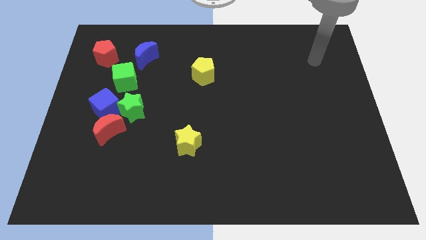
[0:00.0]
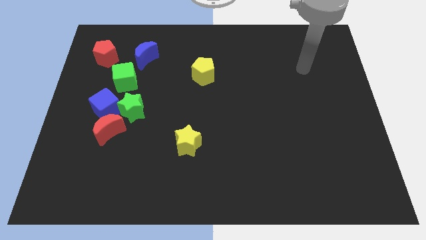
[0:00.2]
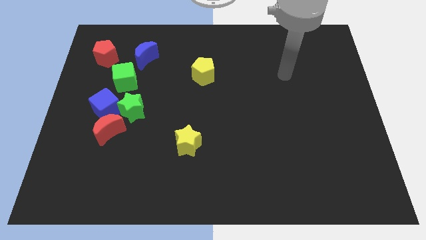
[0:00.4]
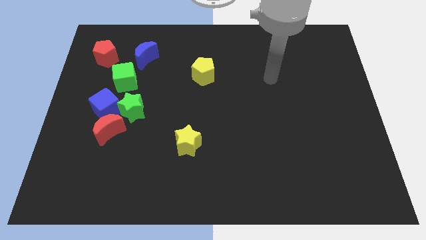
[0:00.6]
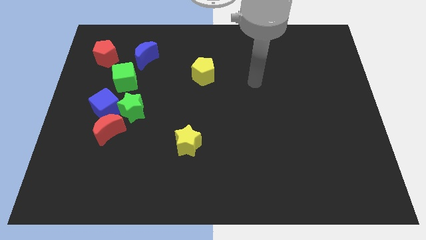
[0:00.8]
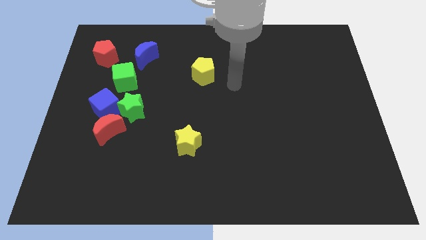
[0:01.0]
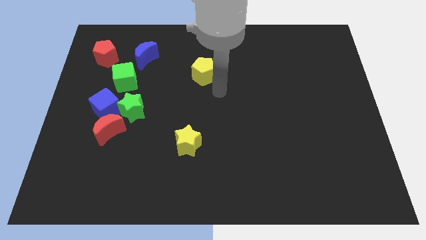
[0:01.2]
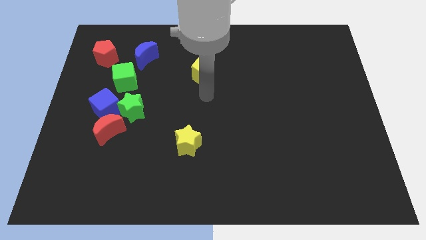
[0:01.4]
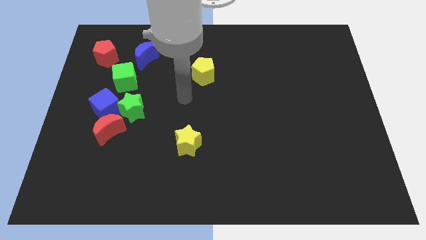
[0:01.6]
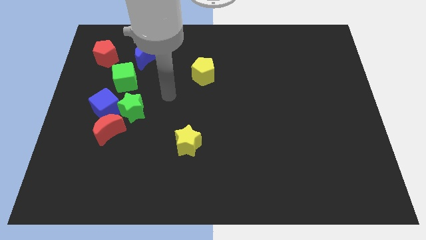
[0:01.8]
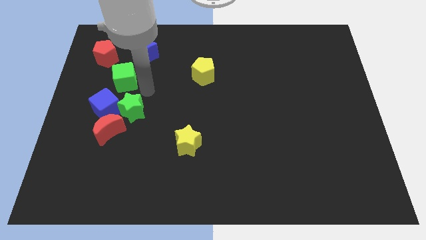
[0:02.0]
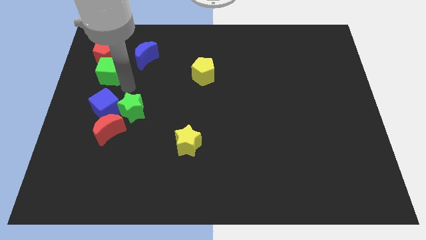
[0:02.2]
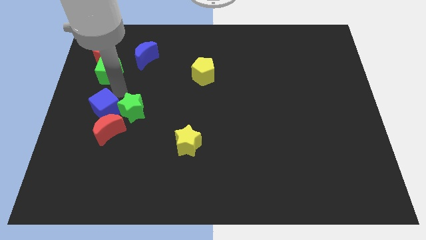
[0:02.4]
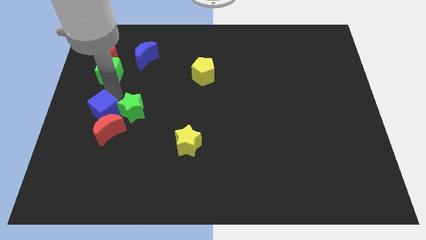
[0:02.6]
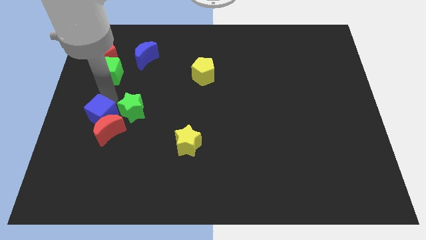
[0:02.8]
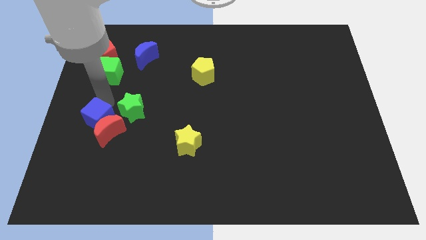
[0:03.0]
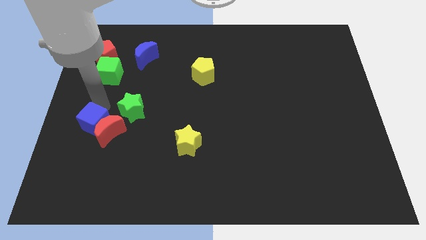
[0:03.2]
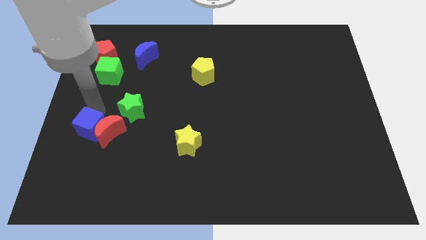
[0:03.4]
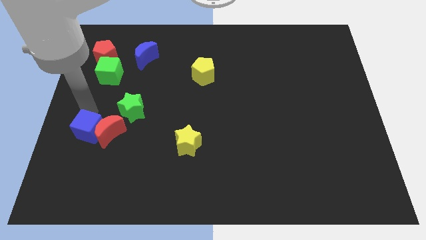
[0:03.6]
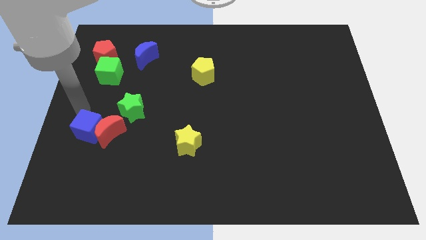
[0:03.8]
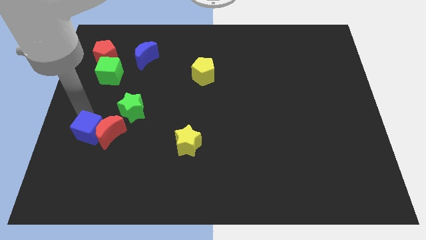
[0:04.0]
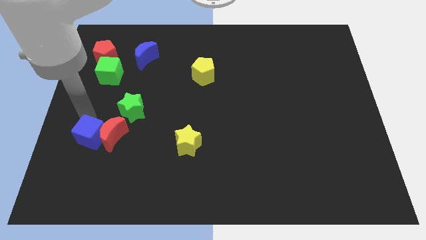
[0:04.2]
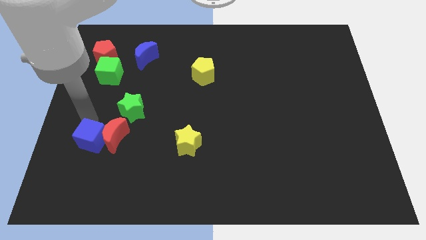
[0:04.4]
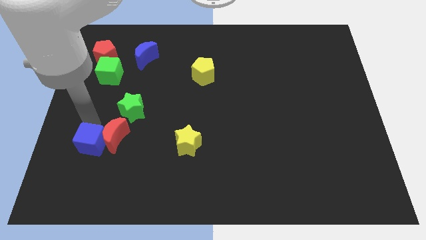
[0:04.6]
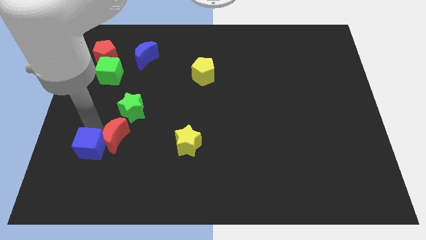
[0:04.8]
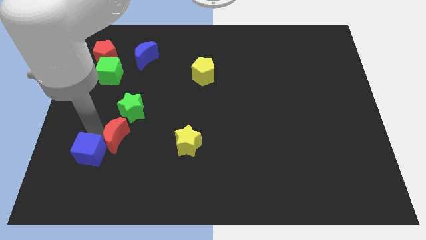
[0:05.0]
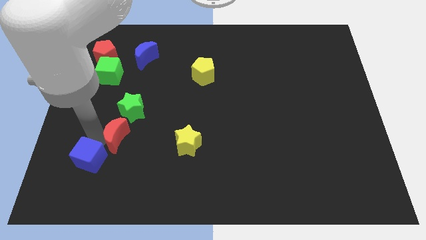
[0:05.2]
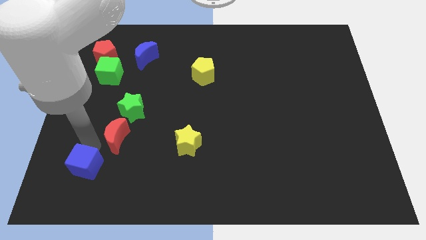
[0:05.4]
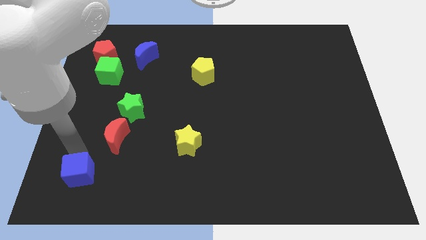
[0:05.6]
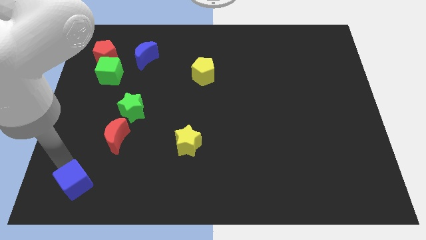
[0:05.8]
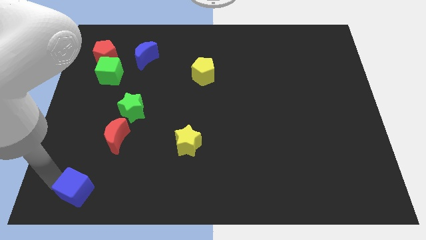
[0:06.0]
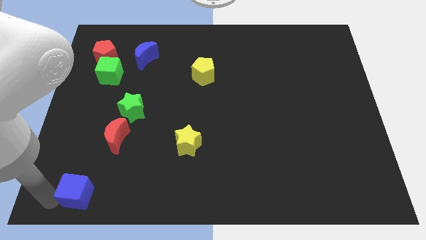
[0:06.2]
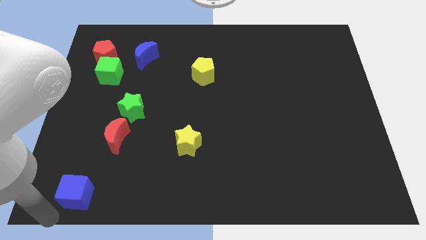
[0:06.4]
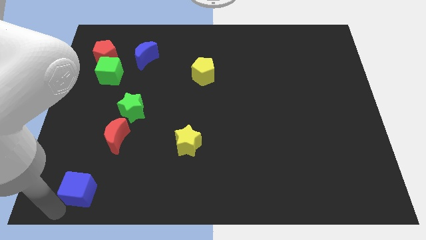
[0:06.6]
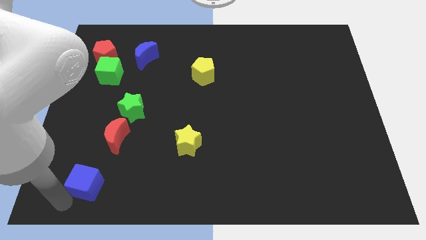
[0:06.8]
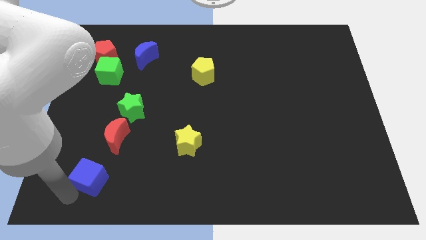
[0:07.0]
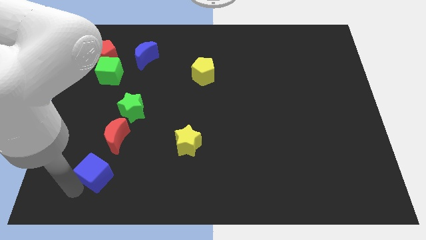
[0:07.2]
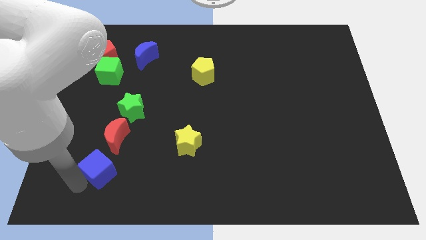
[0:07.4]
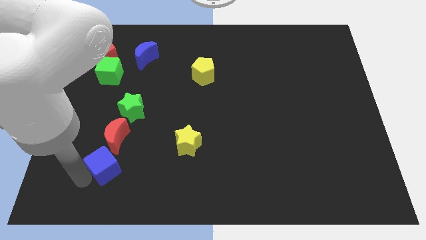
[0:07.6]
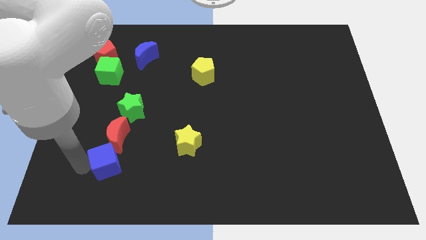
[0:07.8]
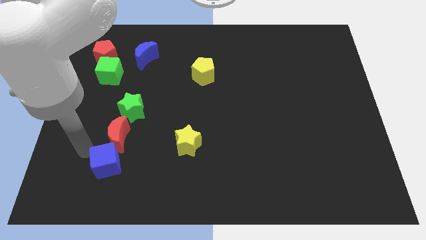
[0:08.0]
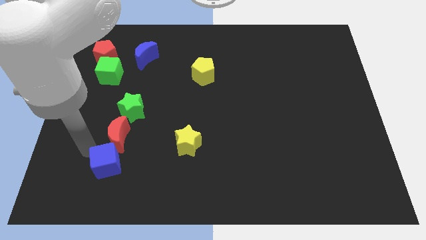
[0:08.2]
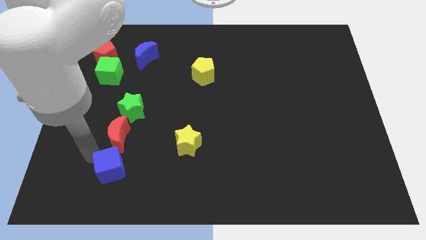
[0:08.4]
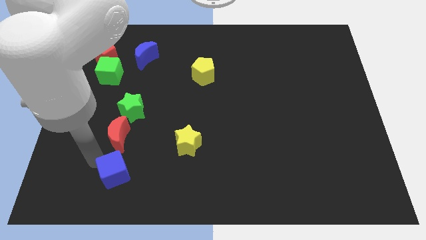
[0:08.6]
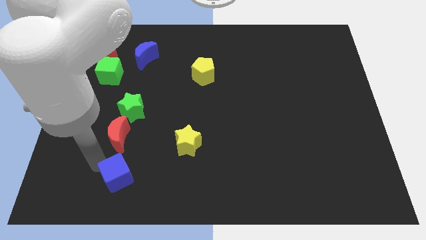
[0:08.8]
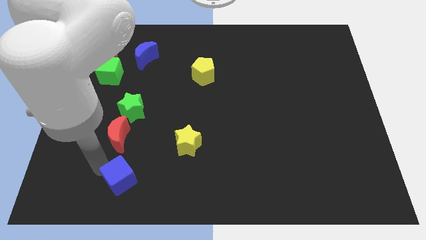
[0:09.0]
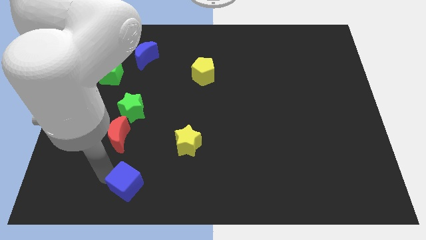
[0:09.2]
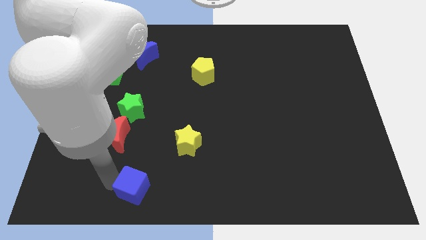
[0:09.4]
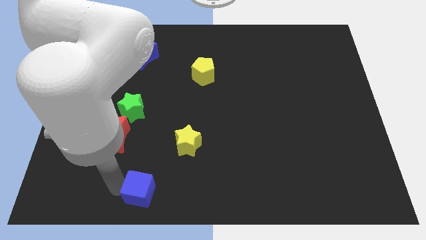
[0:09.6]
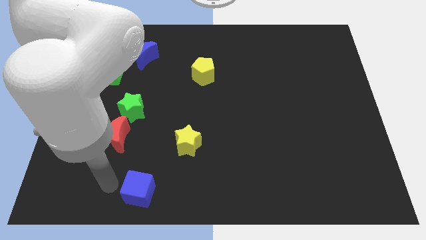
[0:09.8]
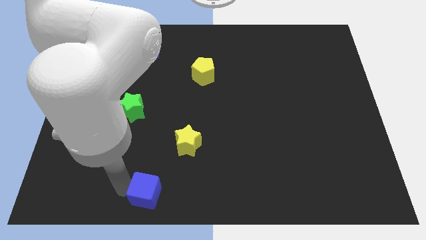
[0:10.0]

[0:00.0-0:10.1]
move the blue cube to the bottom

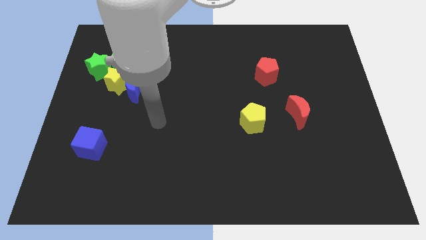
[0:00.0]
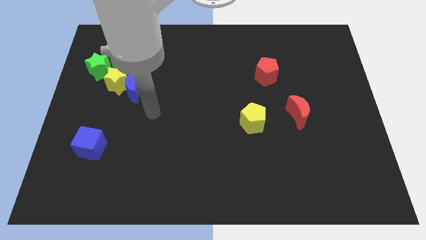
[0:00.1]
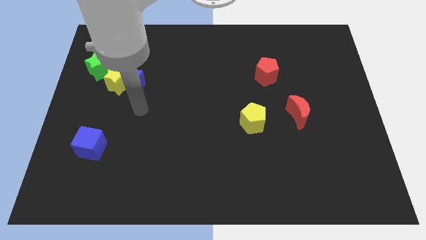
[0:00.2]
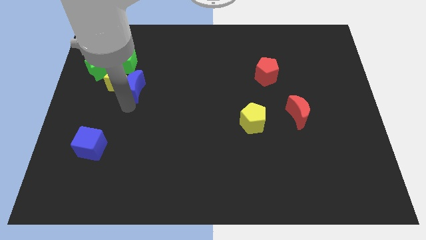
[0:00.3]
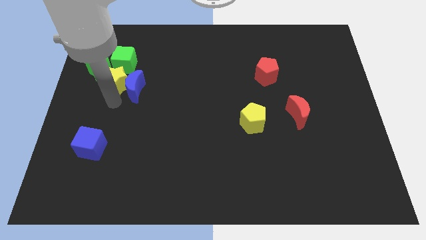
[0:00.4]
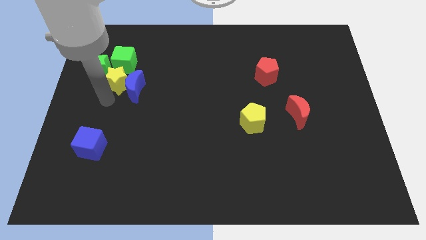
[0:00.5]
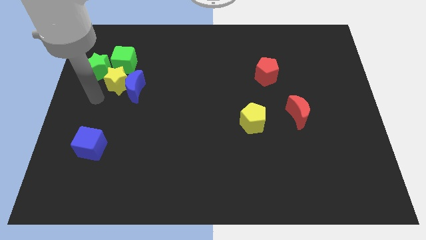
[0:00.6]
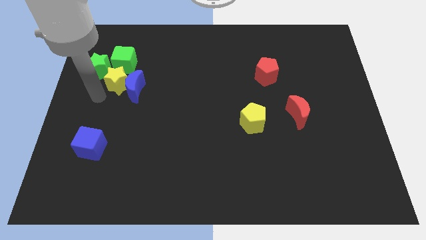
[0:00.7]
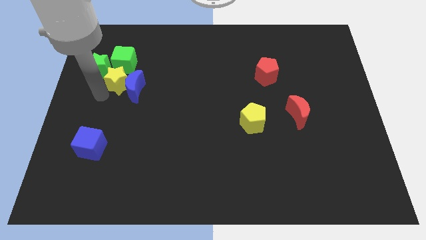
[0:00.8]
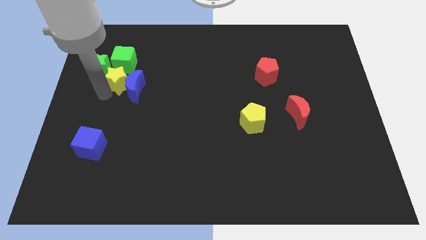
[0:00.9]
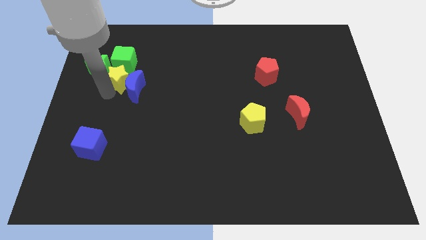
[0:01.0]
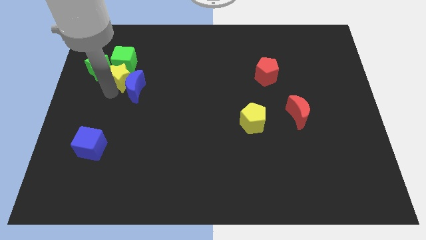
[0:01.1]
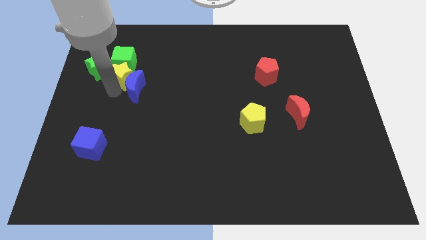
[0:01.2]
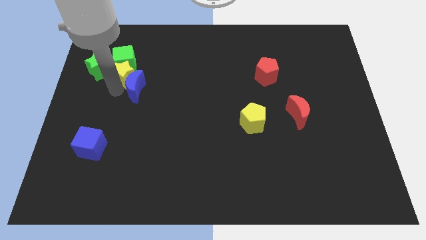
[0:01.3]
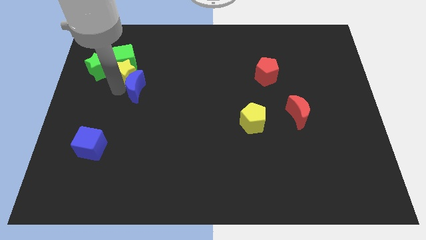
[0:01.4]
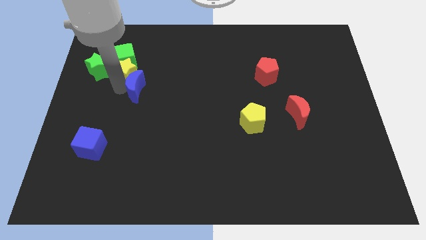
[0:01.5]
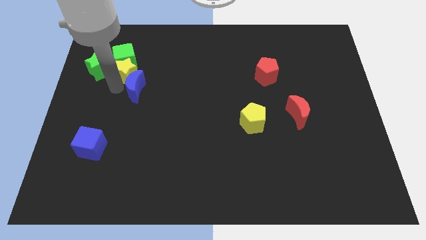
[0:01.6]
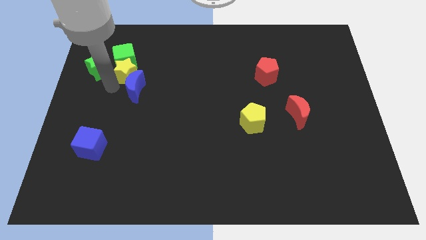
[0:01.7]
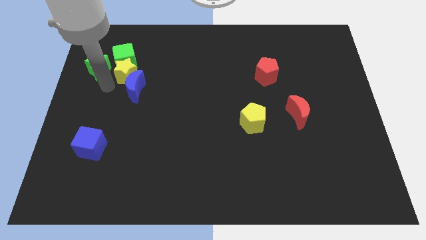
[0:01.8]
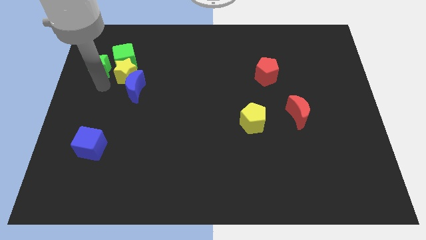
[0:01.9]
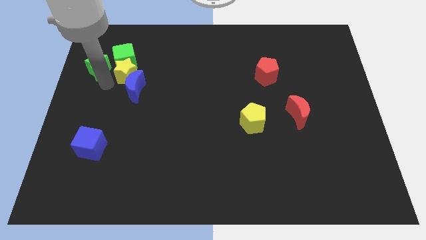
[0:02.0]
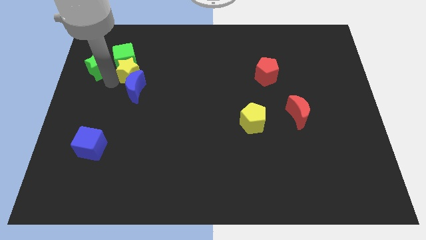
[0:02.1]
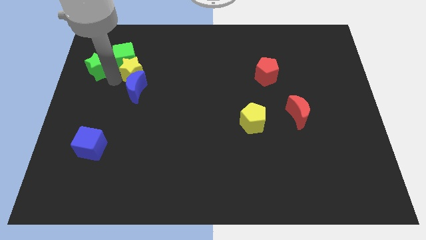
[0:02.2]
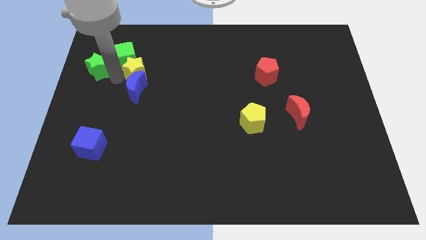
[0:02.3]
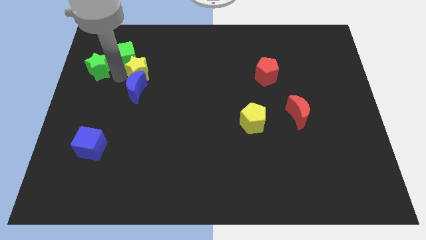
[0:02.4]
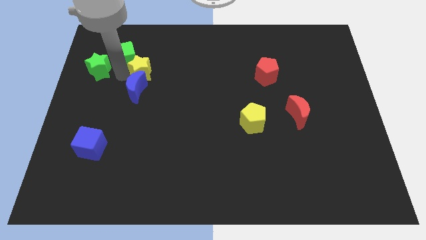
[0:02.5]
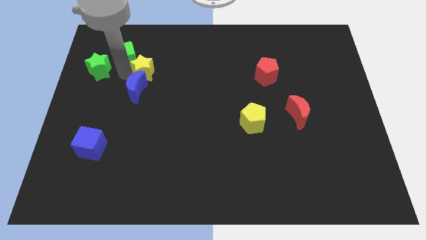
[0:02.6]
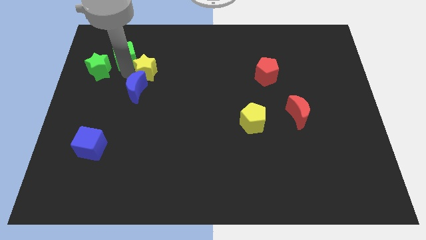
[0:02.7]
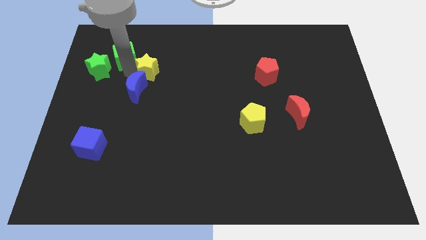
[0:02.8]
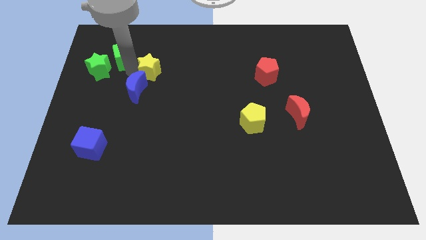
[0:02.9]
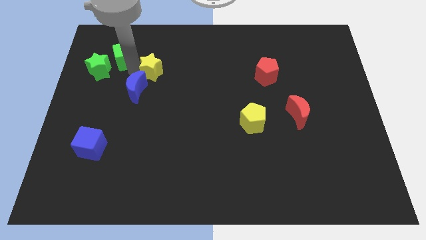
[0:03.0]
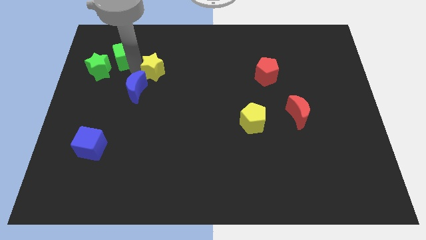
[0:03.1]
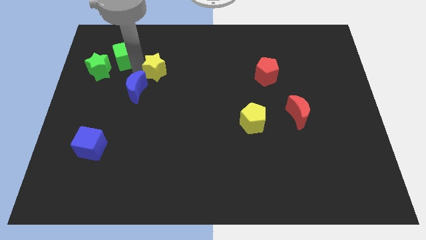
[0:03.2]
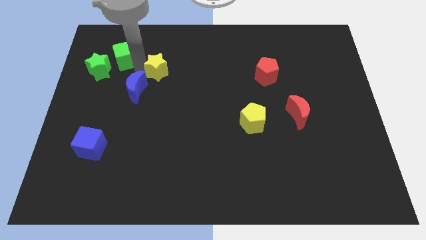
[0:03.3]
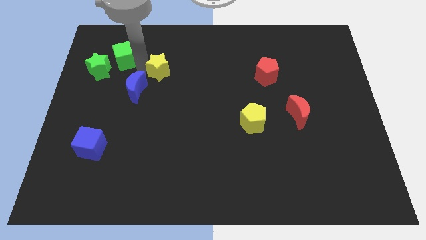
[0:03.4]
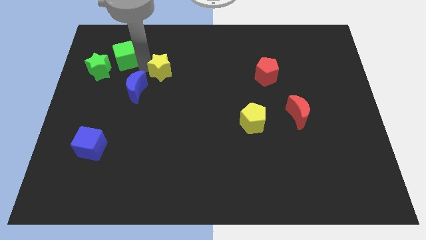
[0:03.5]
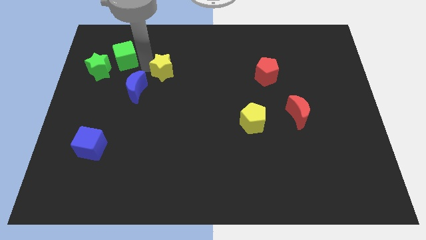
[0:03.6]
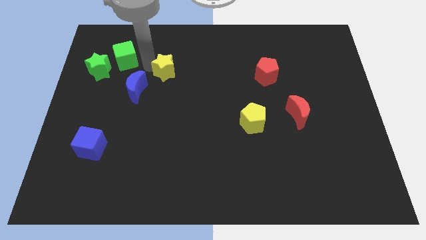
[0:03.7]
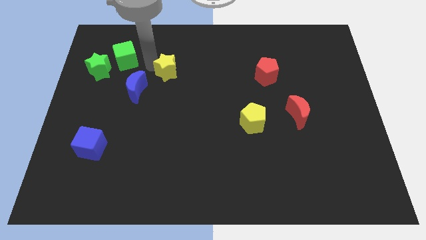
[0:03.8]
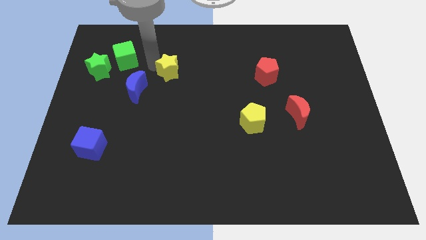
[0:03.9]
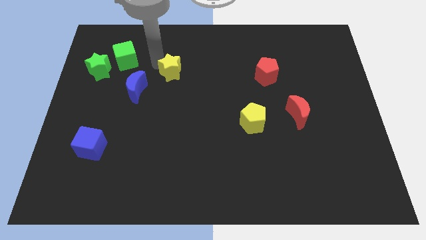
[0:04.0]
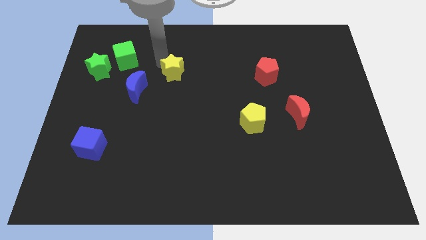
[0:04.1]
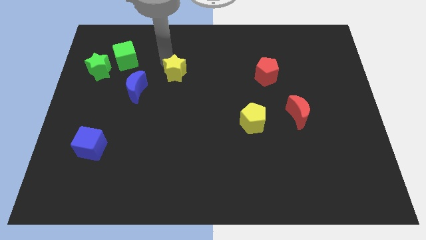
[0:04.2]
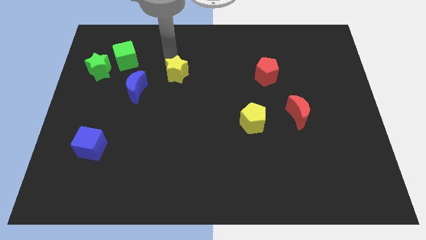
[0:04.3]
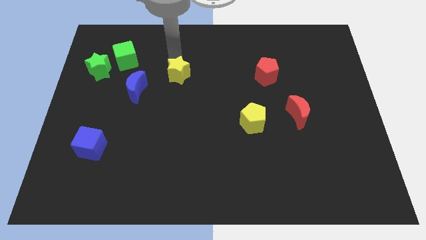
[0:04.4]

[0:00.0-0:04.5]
slide the yellow star to the center
